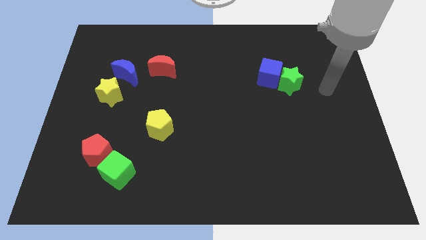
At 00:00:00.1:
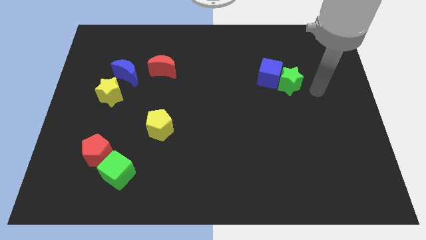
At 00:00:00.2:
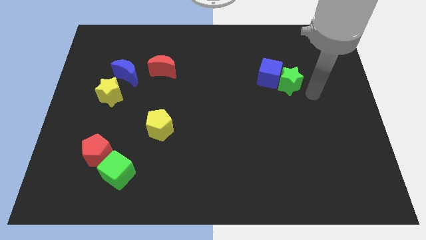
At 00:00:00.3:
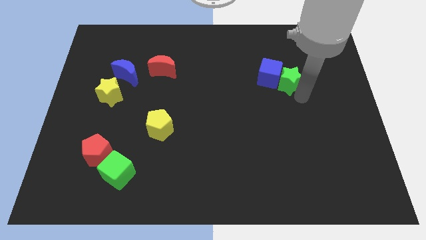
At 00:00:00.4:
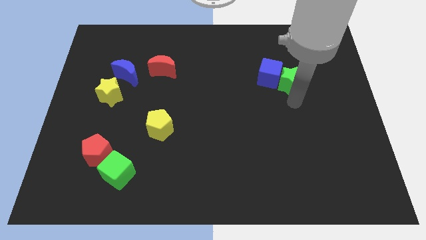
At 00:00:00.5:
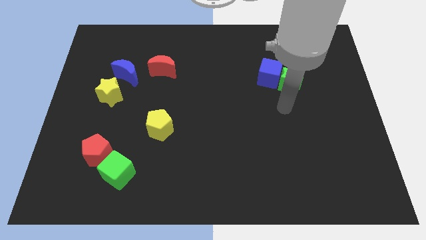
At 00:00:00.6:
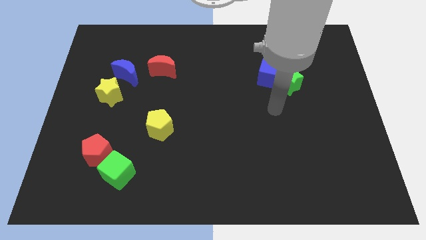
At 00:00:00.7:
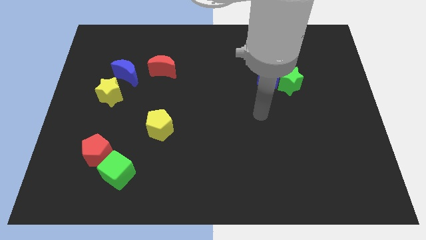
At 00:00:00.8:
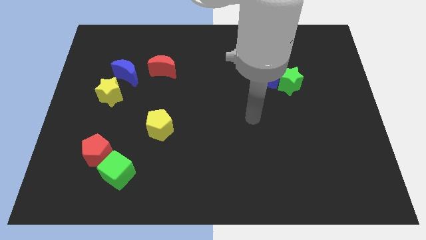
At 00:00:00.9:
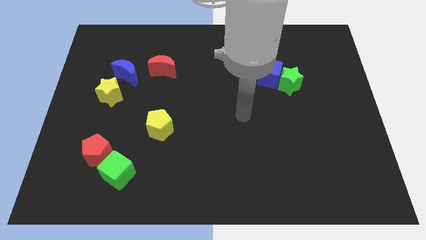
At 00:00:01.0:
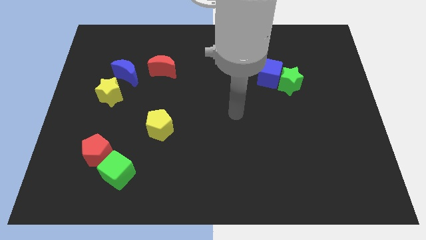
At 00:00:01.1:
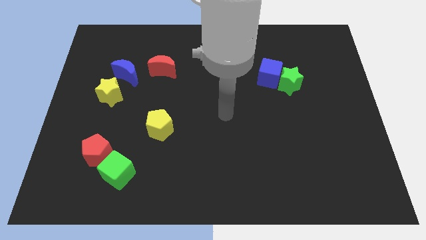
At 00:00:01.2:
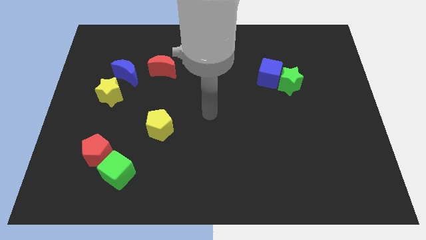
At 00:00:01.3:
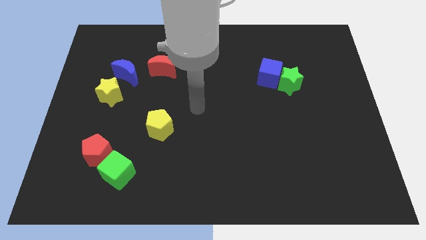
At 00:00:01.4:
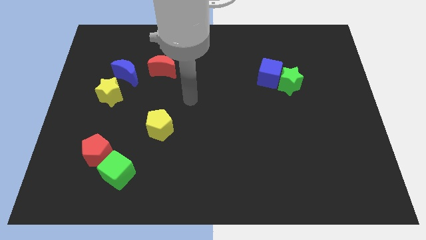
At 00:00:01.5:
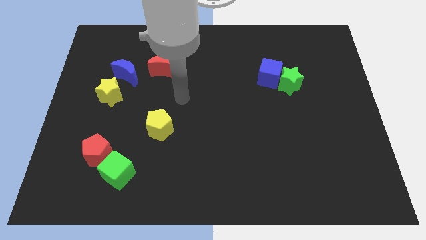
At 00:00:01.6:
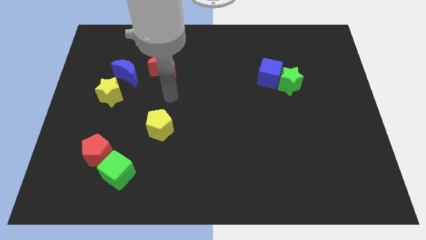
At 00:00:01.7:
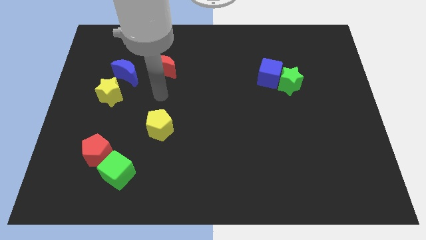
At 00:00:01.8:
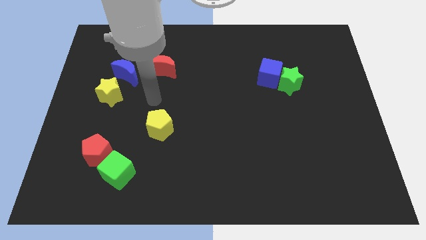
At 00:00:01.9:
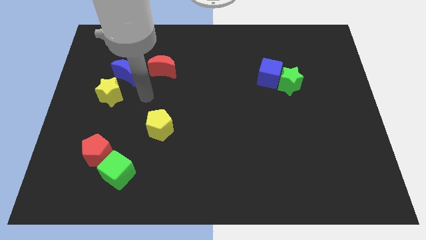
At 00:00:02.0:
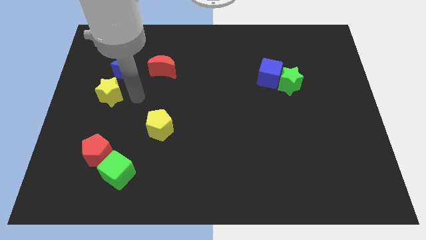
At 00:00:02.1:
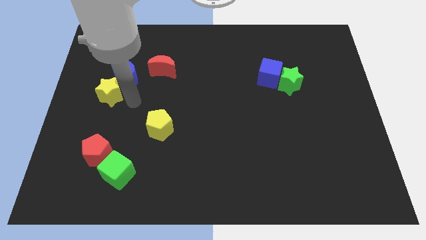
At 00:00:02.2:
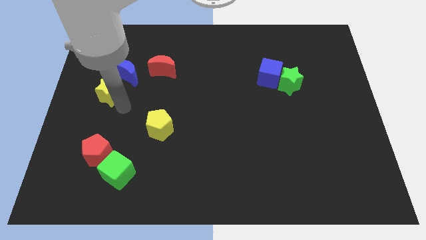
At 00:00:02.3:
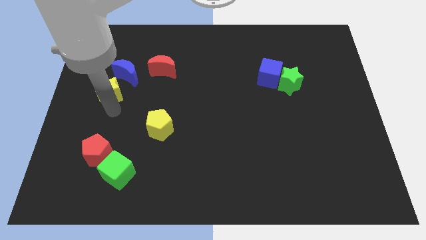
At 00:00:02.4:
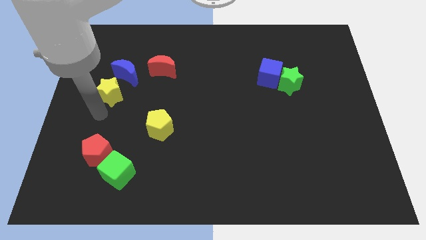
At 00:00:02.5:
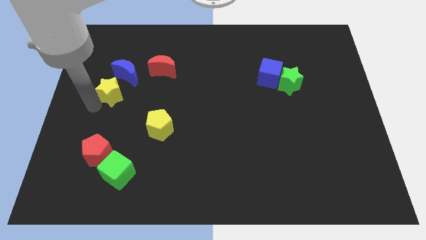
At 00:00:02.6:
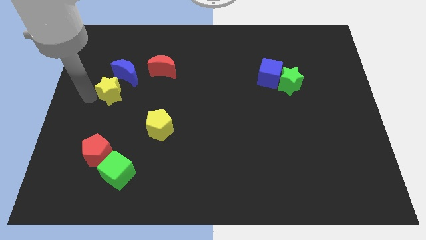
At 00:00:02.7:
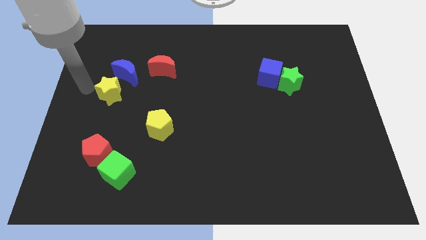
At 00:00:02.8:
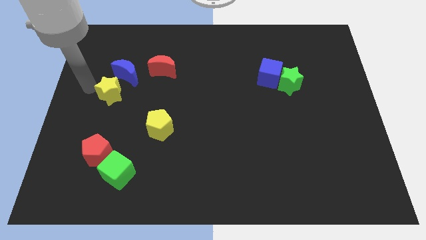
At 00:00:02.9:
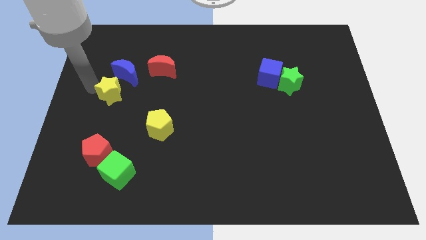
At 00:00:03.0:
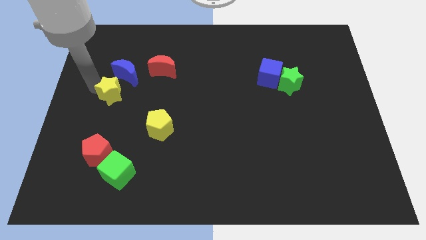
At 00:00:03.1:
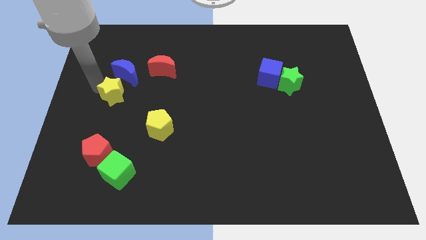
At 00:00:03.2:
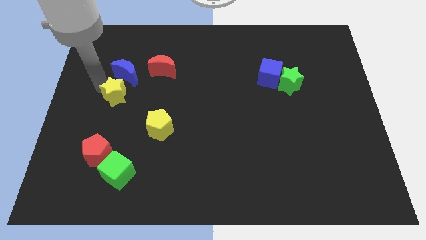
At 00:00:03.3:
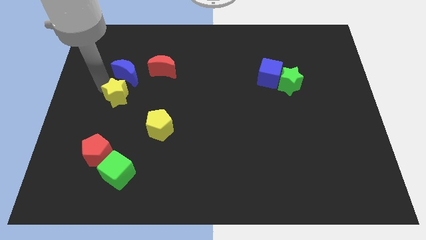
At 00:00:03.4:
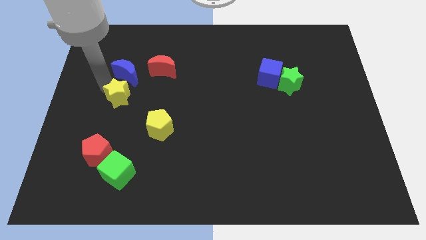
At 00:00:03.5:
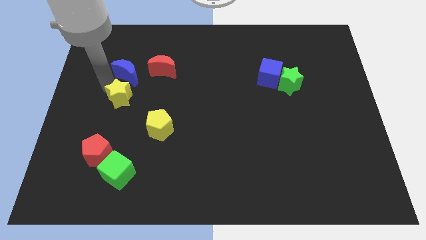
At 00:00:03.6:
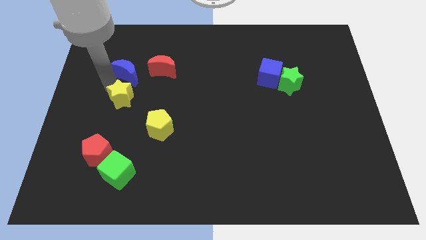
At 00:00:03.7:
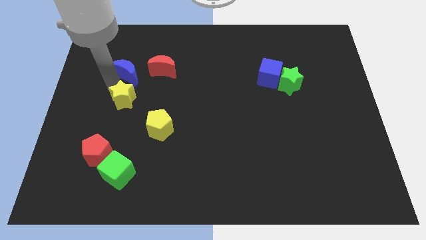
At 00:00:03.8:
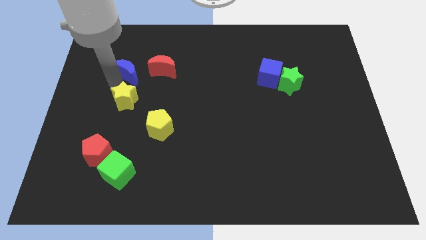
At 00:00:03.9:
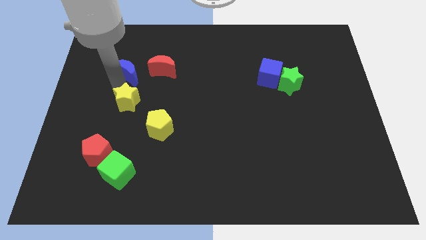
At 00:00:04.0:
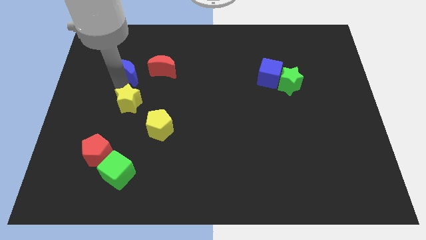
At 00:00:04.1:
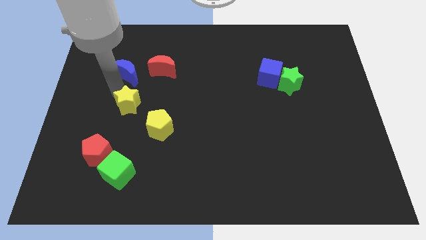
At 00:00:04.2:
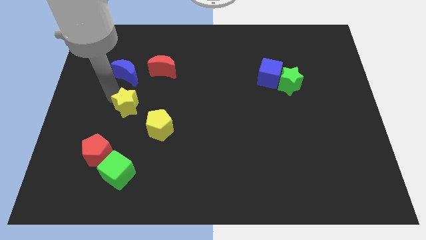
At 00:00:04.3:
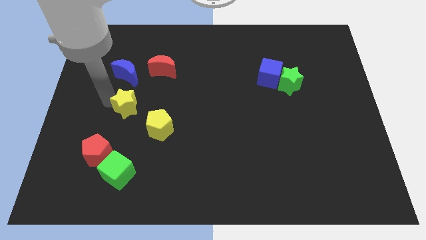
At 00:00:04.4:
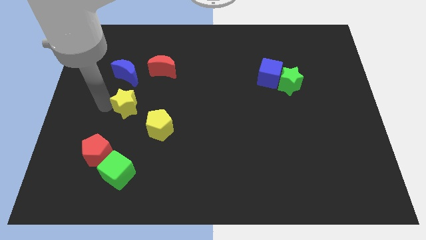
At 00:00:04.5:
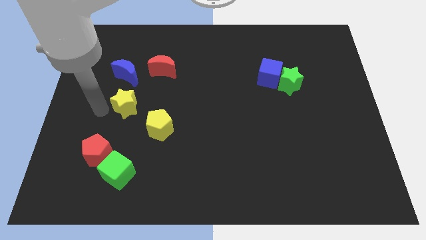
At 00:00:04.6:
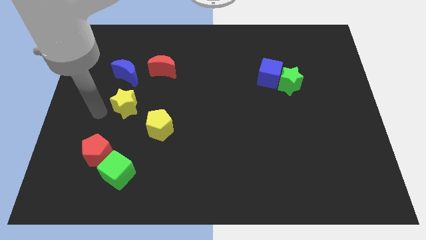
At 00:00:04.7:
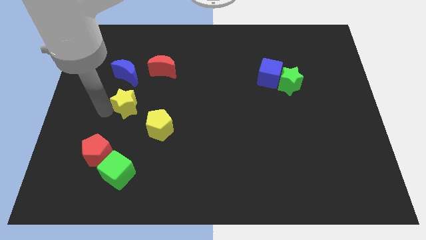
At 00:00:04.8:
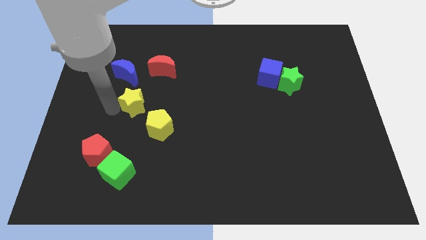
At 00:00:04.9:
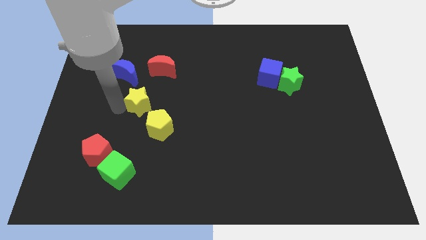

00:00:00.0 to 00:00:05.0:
slightly push the yellow star to the right

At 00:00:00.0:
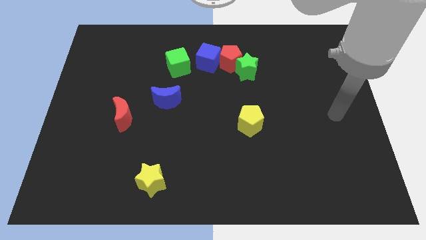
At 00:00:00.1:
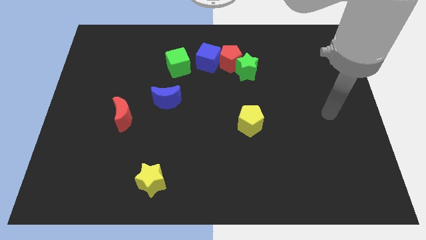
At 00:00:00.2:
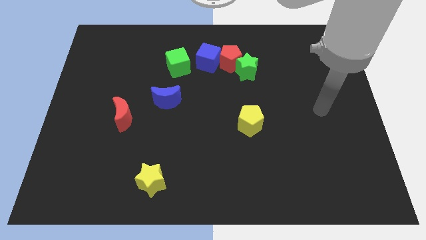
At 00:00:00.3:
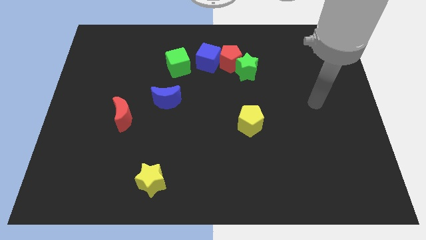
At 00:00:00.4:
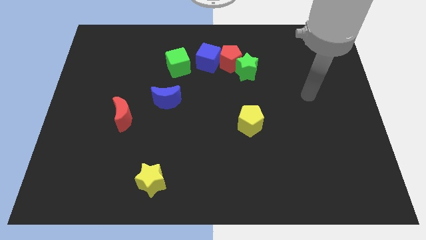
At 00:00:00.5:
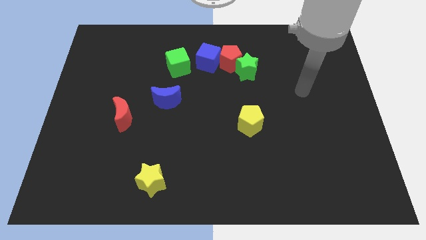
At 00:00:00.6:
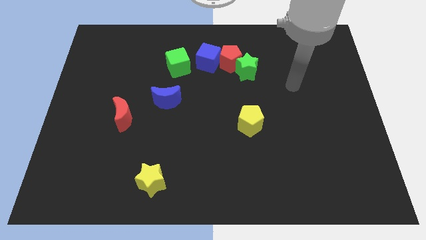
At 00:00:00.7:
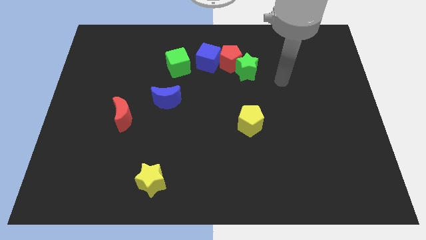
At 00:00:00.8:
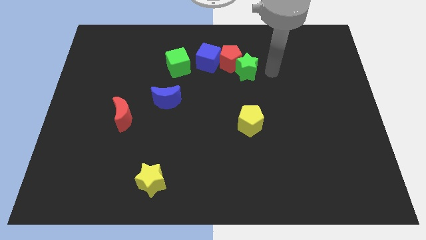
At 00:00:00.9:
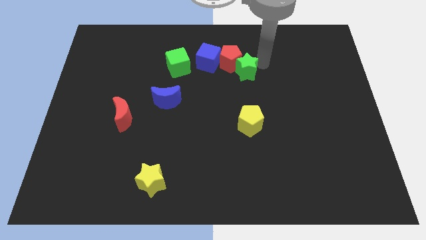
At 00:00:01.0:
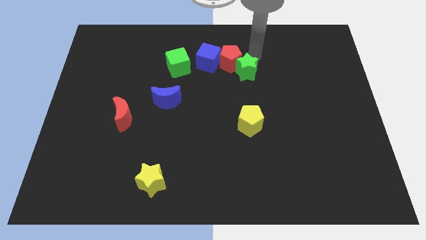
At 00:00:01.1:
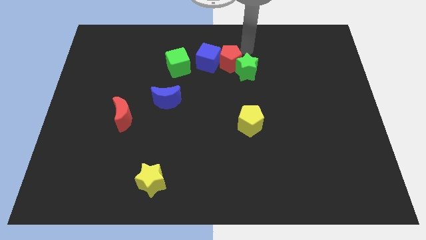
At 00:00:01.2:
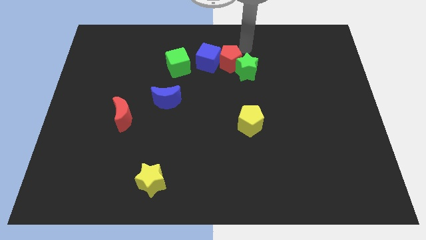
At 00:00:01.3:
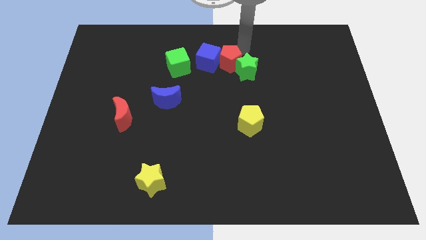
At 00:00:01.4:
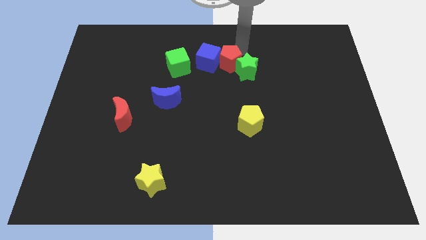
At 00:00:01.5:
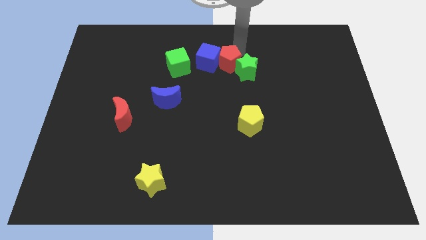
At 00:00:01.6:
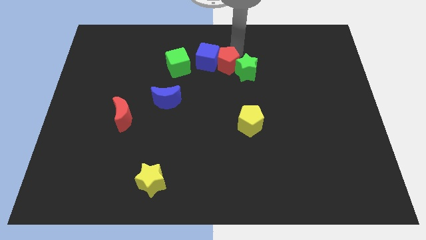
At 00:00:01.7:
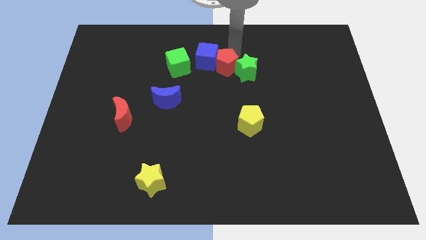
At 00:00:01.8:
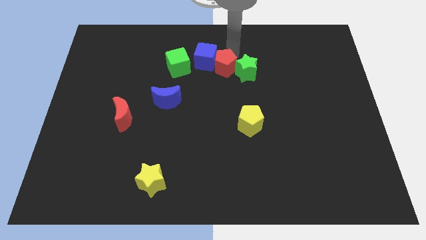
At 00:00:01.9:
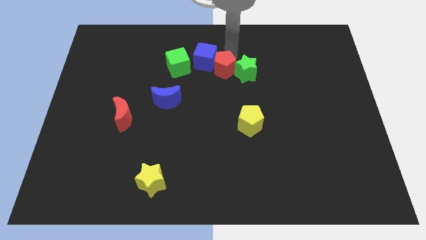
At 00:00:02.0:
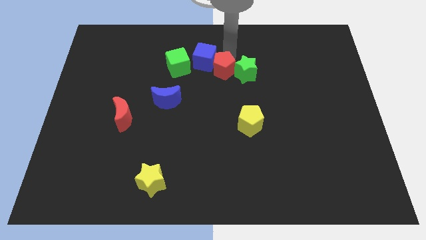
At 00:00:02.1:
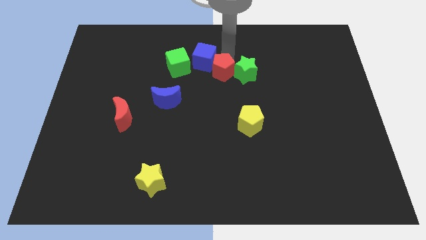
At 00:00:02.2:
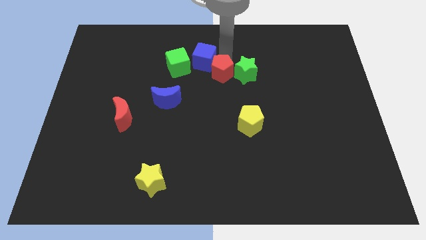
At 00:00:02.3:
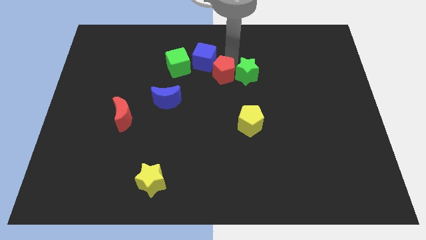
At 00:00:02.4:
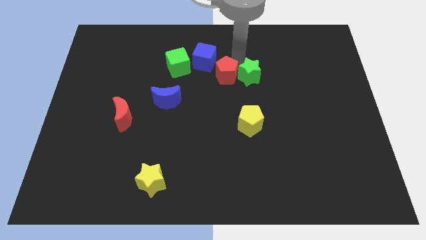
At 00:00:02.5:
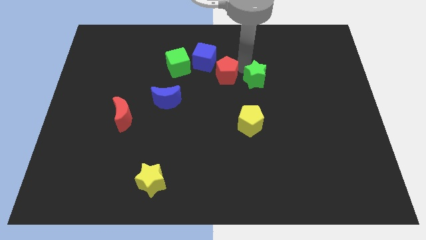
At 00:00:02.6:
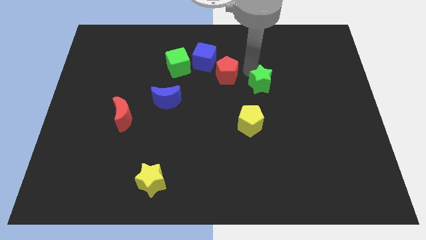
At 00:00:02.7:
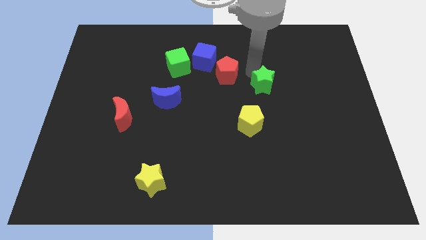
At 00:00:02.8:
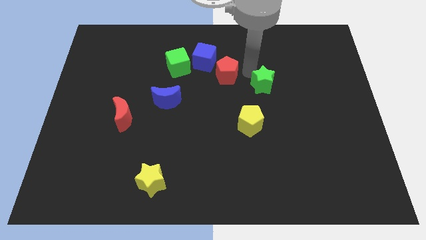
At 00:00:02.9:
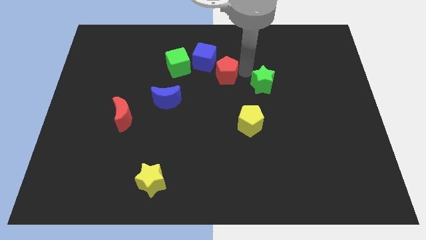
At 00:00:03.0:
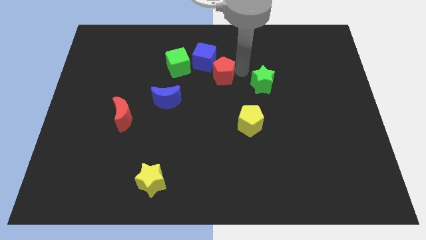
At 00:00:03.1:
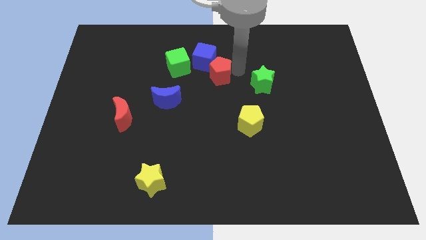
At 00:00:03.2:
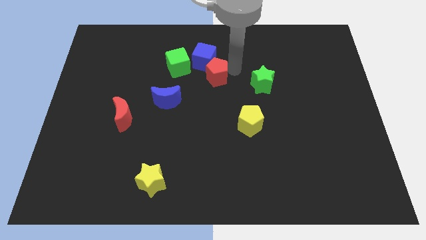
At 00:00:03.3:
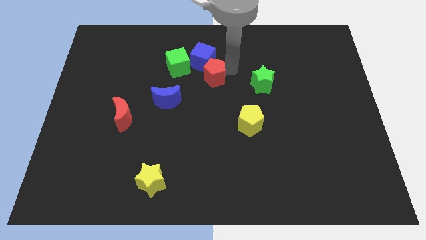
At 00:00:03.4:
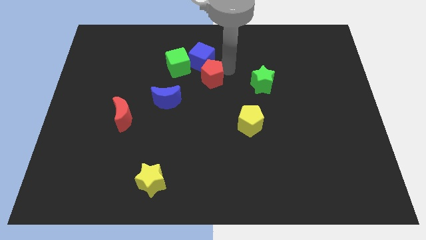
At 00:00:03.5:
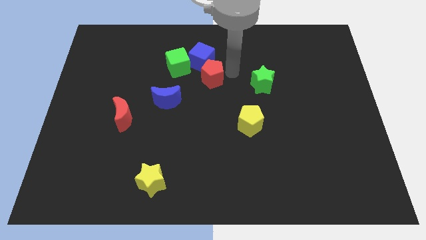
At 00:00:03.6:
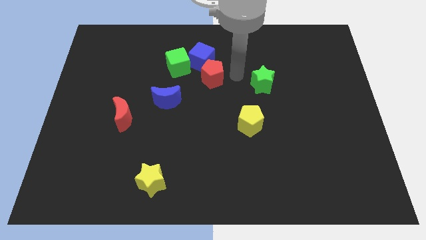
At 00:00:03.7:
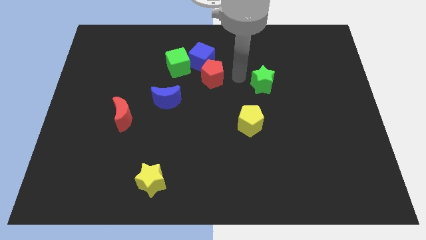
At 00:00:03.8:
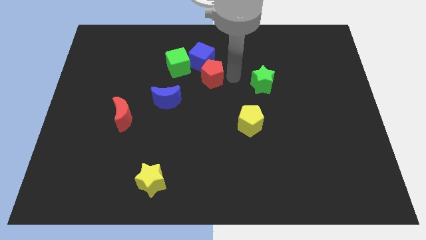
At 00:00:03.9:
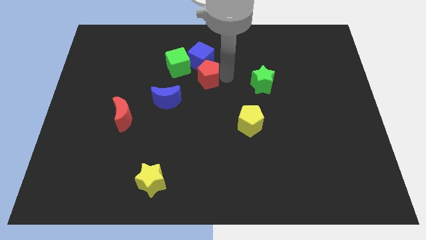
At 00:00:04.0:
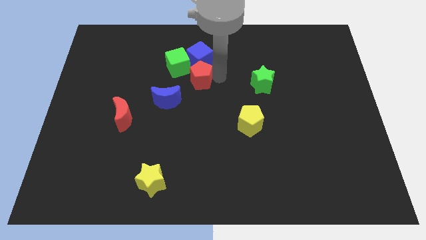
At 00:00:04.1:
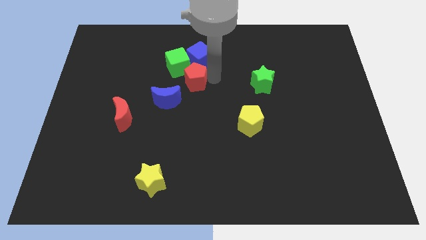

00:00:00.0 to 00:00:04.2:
push the red pentagon left slightly
